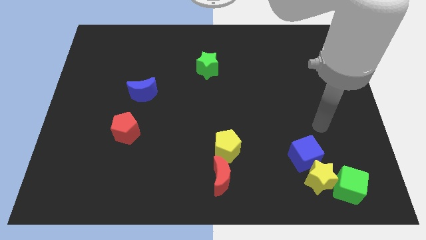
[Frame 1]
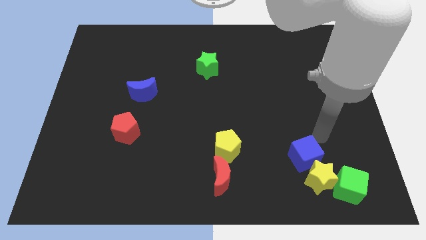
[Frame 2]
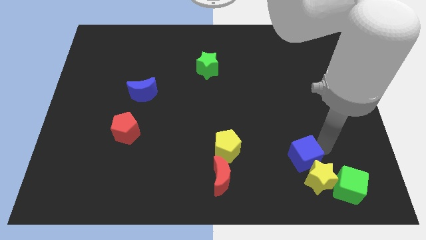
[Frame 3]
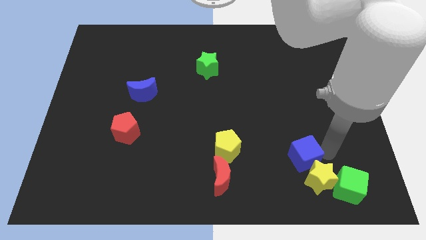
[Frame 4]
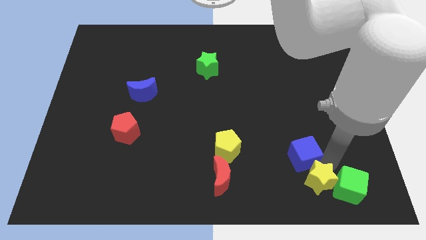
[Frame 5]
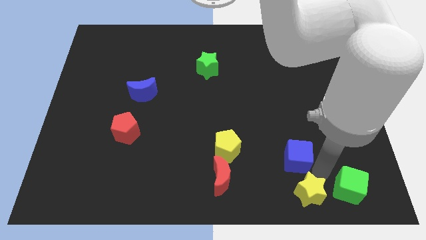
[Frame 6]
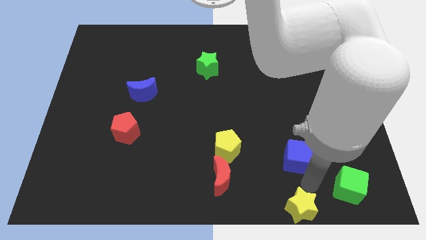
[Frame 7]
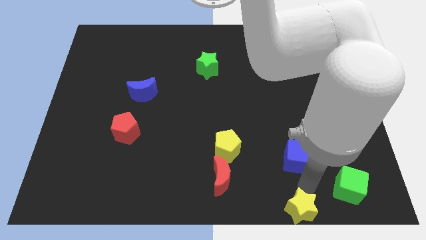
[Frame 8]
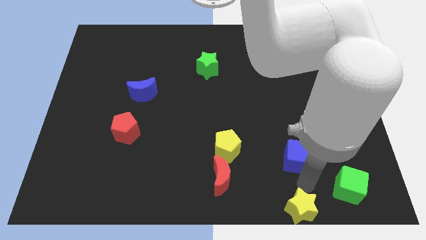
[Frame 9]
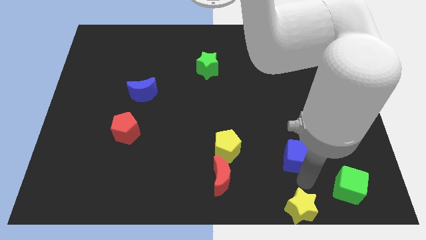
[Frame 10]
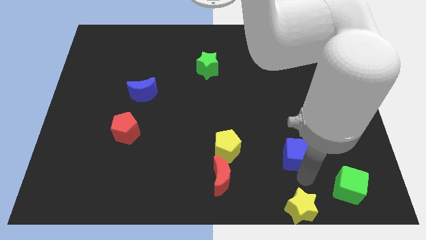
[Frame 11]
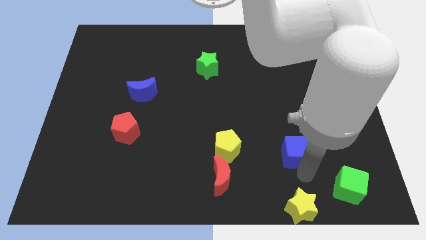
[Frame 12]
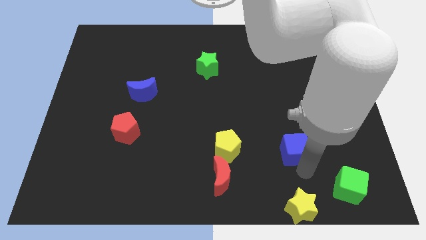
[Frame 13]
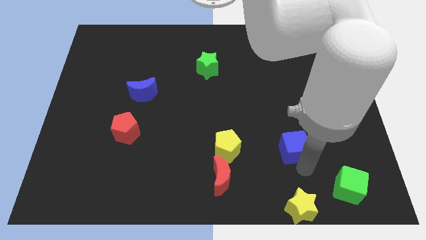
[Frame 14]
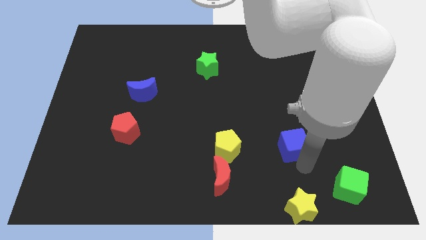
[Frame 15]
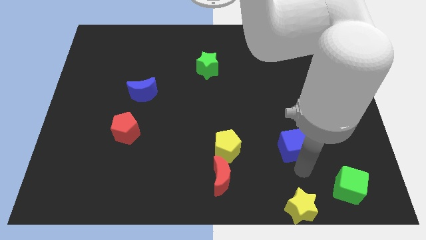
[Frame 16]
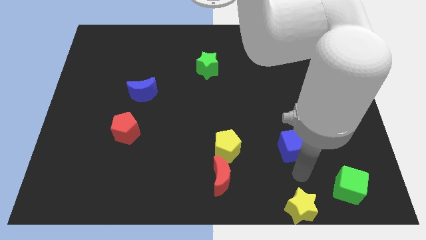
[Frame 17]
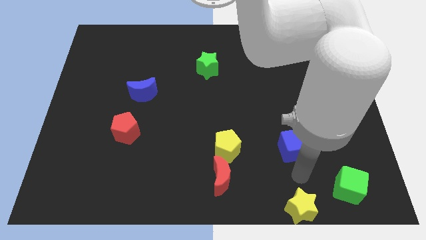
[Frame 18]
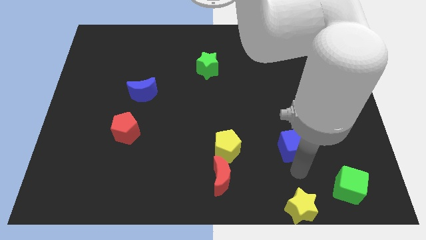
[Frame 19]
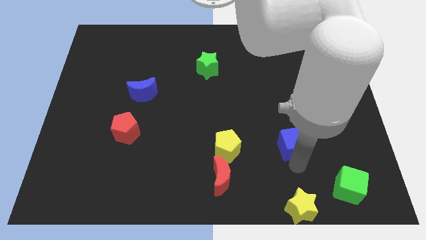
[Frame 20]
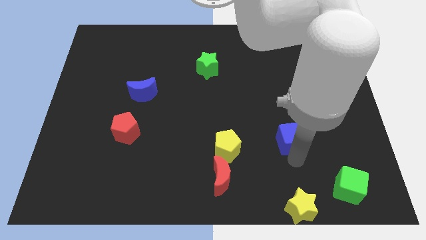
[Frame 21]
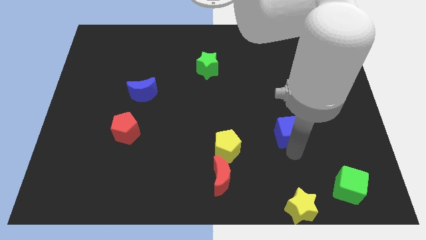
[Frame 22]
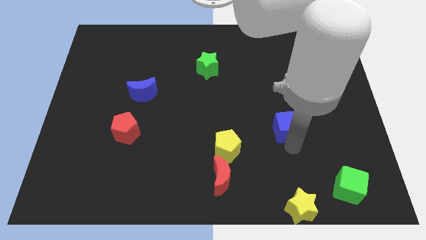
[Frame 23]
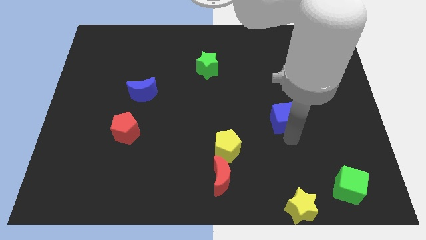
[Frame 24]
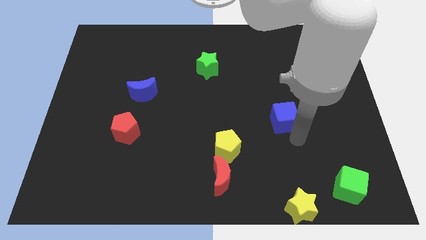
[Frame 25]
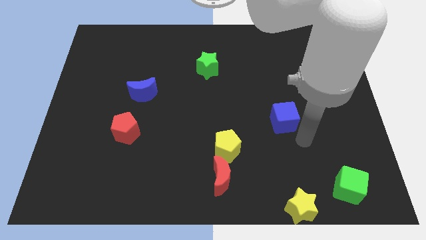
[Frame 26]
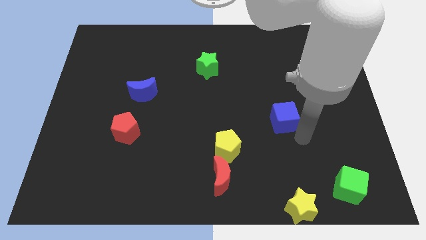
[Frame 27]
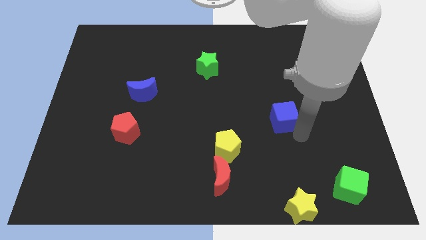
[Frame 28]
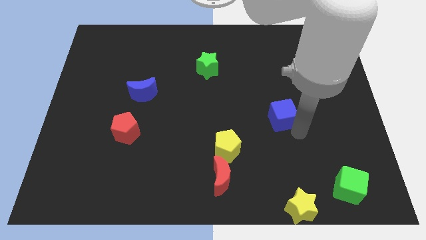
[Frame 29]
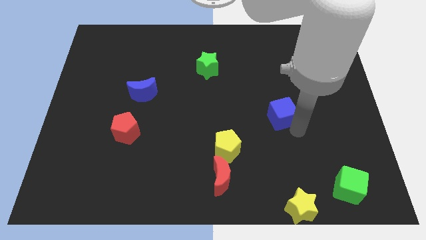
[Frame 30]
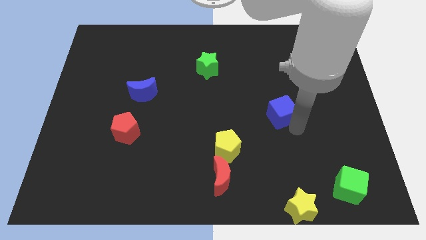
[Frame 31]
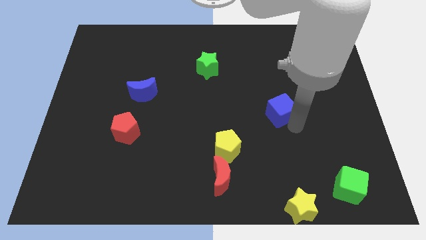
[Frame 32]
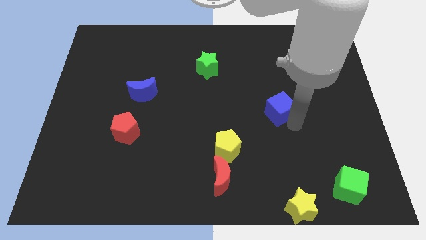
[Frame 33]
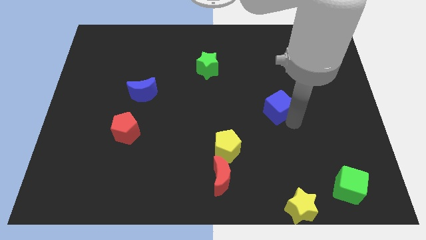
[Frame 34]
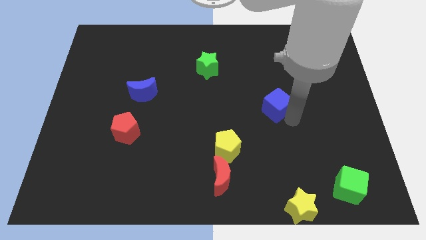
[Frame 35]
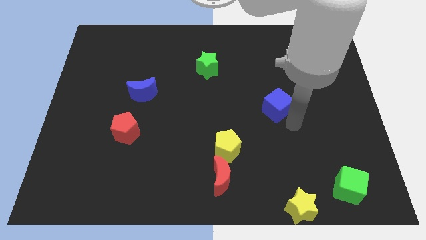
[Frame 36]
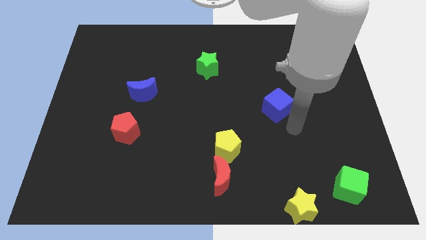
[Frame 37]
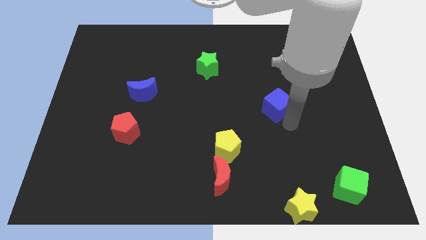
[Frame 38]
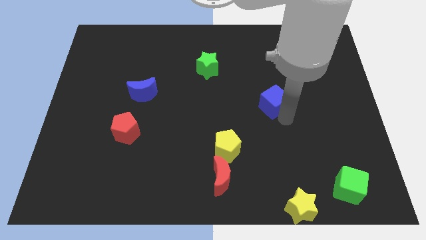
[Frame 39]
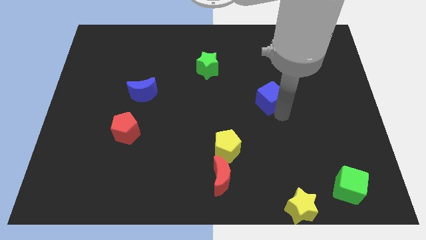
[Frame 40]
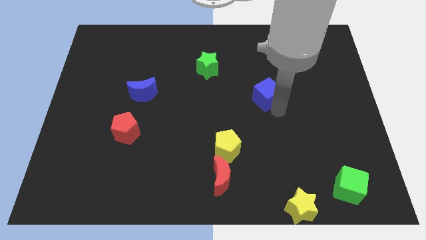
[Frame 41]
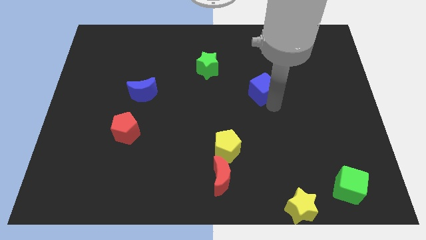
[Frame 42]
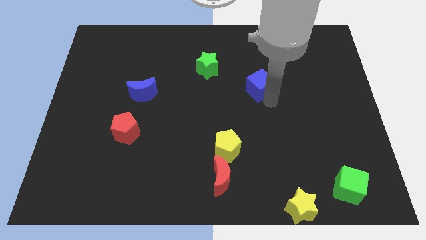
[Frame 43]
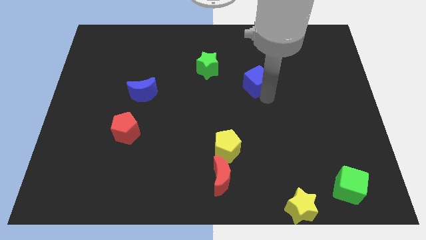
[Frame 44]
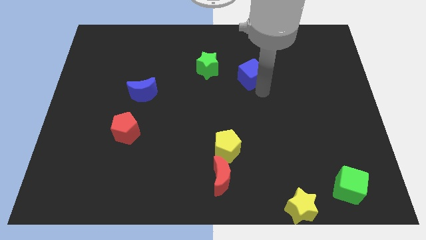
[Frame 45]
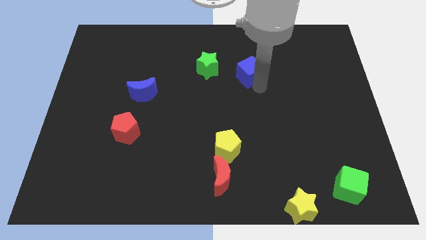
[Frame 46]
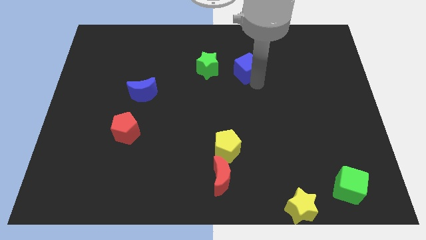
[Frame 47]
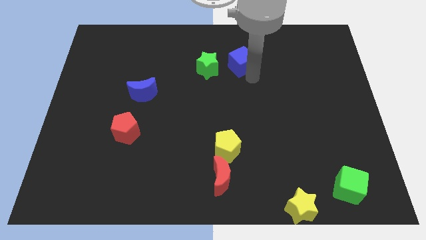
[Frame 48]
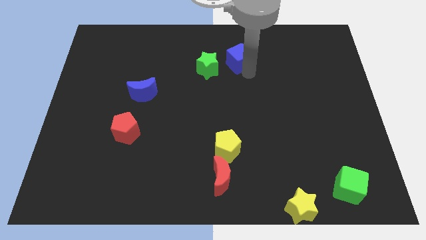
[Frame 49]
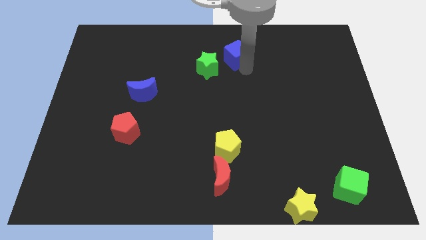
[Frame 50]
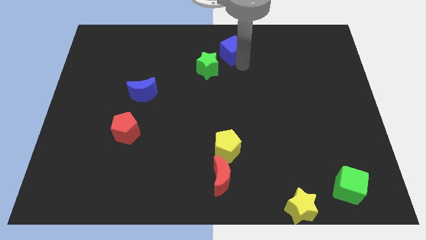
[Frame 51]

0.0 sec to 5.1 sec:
push the blue cube to the towards your base

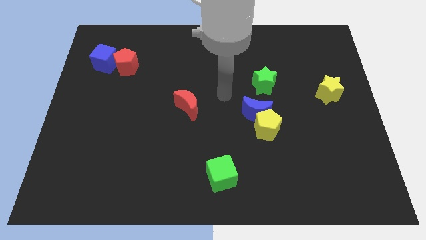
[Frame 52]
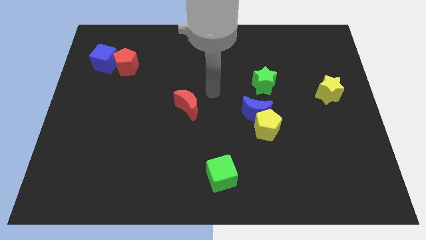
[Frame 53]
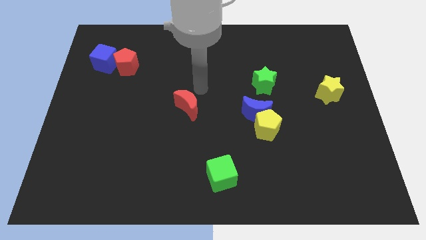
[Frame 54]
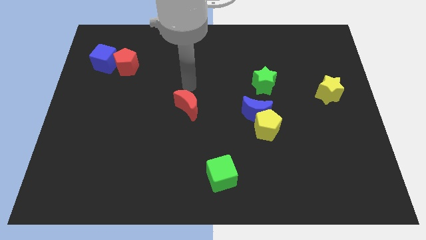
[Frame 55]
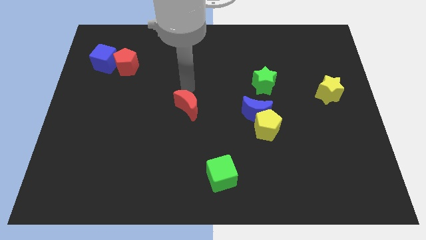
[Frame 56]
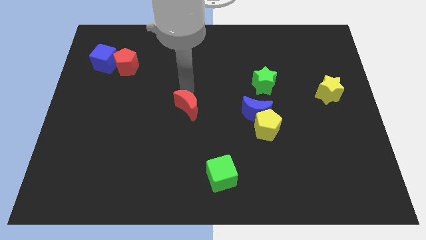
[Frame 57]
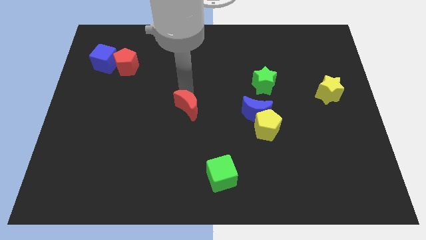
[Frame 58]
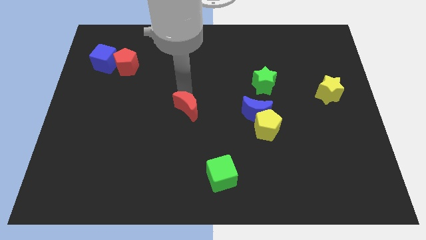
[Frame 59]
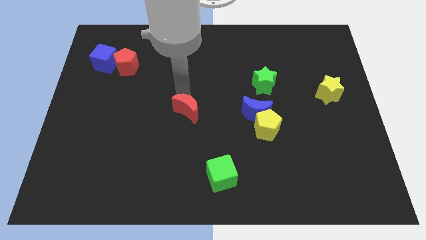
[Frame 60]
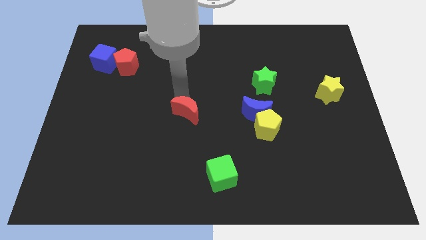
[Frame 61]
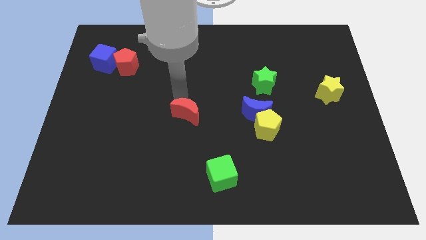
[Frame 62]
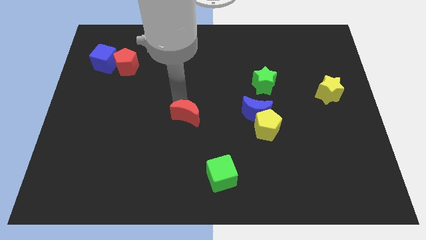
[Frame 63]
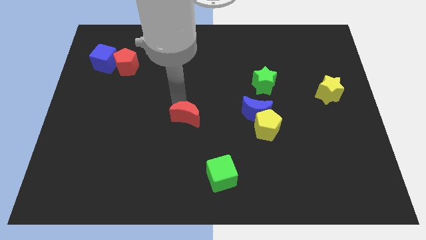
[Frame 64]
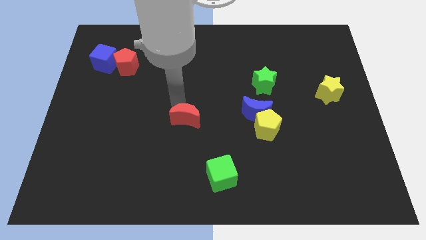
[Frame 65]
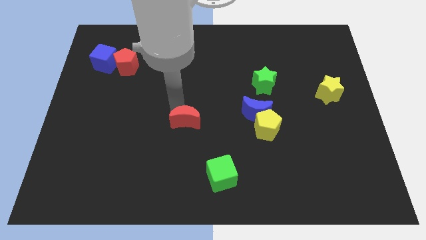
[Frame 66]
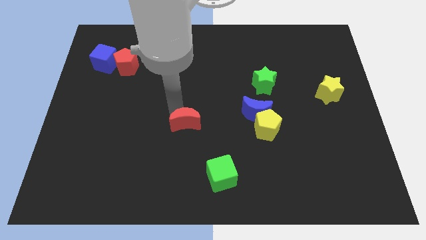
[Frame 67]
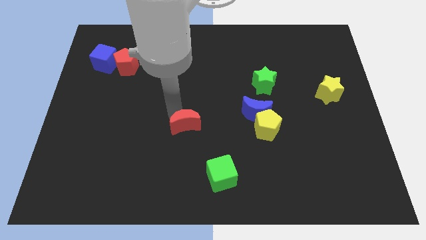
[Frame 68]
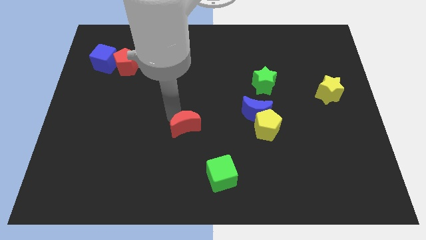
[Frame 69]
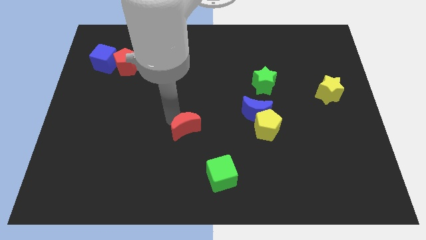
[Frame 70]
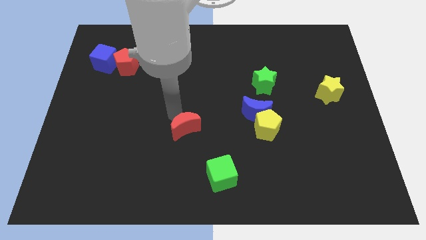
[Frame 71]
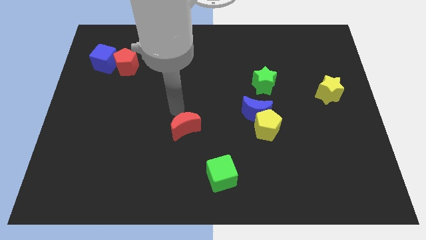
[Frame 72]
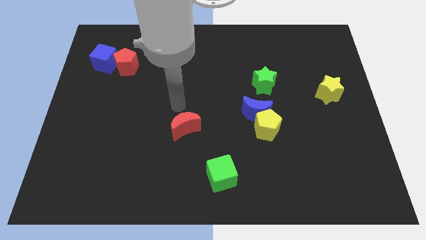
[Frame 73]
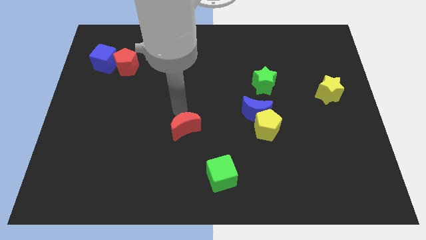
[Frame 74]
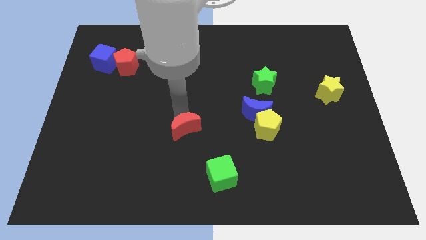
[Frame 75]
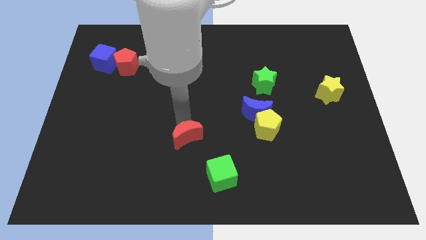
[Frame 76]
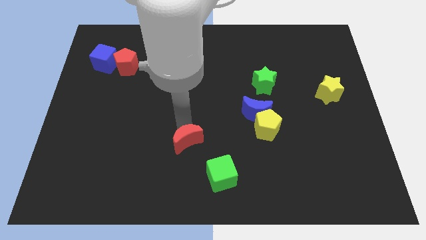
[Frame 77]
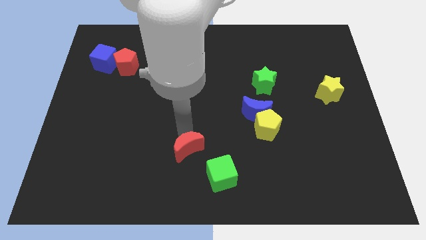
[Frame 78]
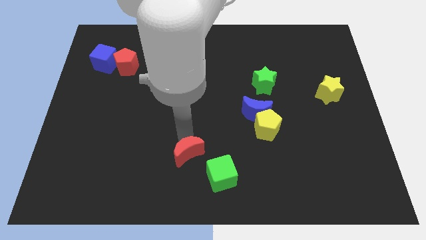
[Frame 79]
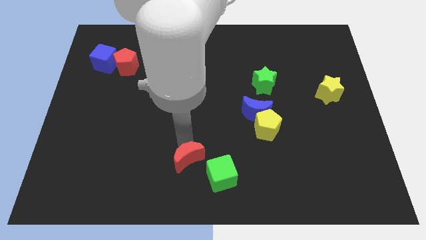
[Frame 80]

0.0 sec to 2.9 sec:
slide the red moon to the bottom side
